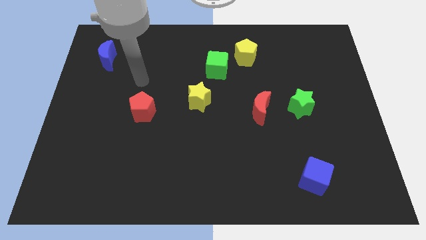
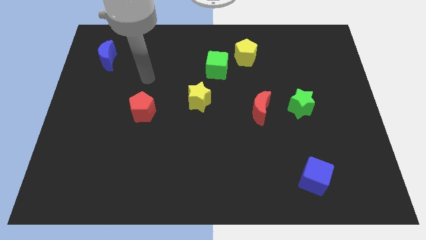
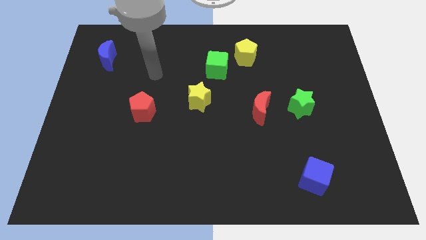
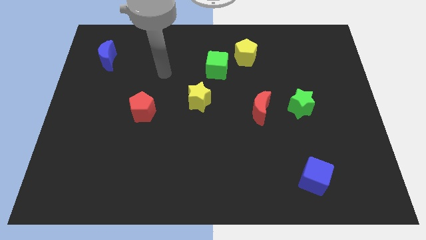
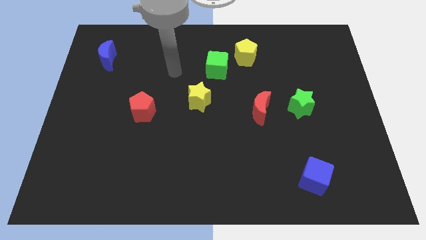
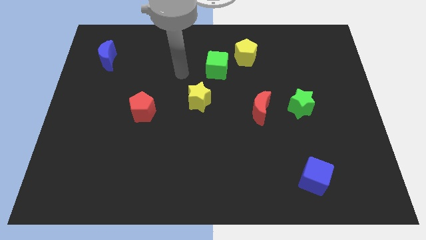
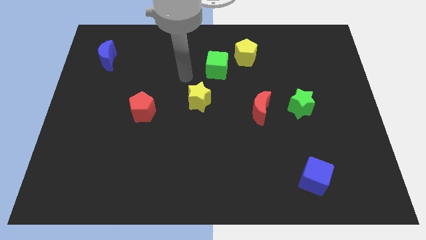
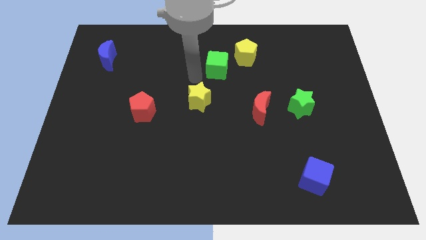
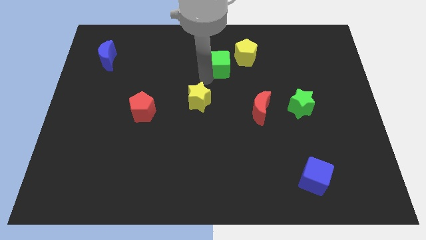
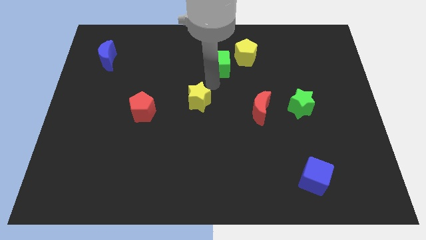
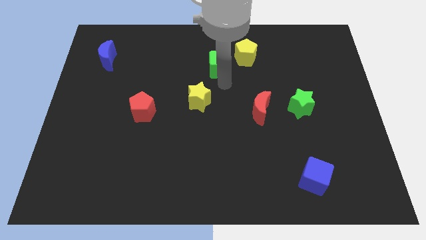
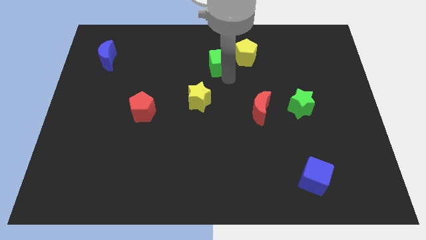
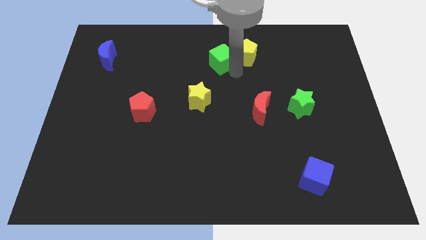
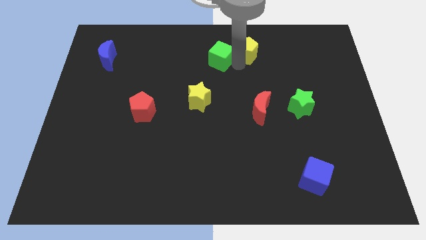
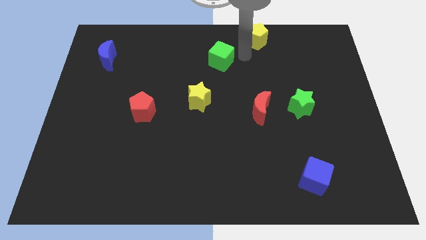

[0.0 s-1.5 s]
separate the green cube from the yellow pentagon

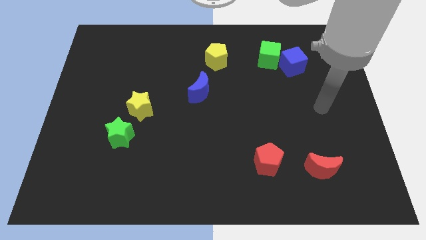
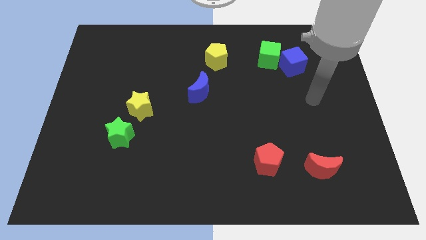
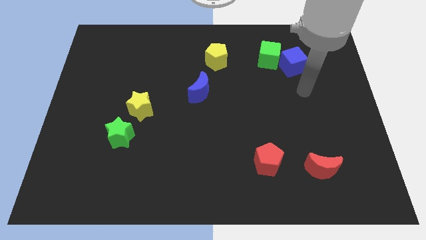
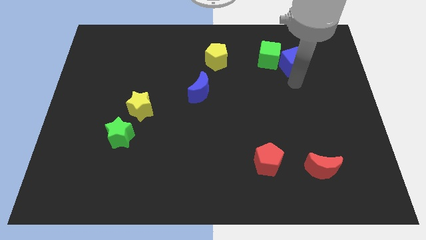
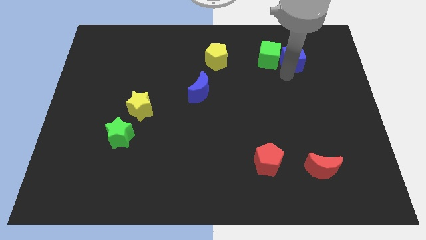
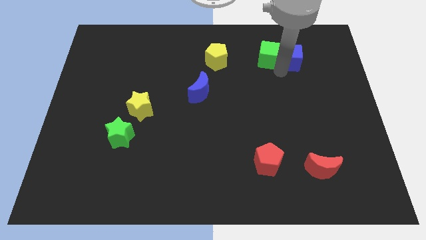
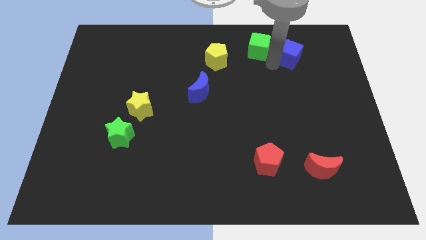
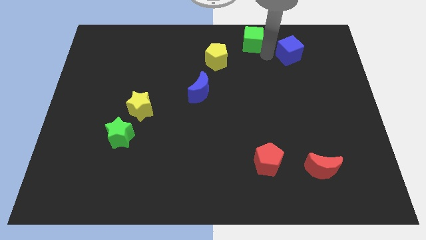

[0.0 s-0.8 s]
separate the blue cube from the green cube

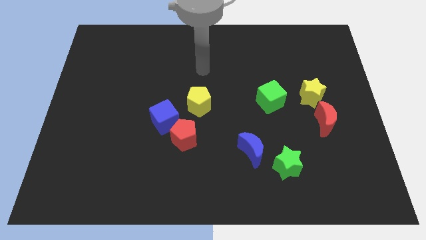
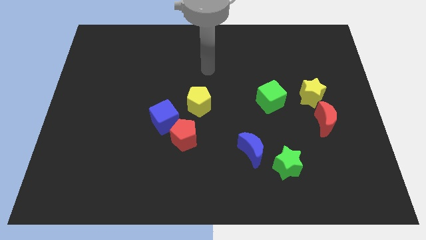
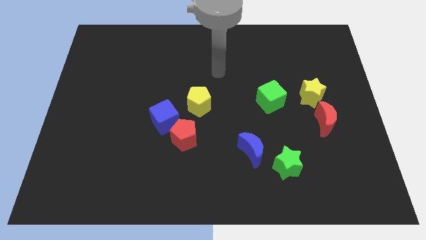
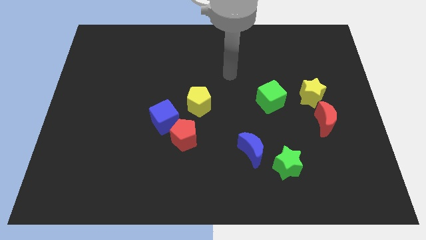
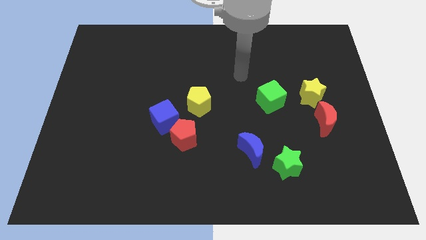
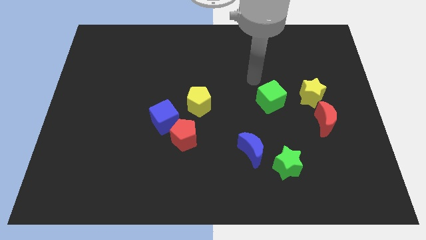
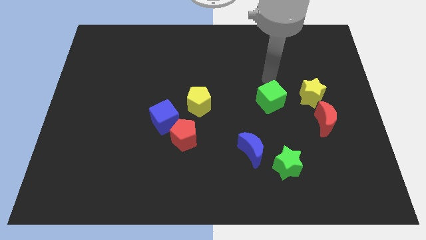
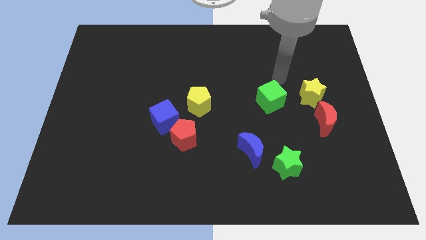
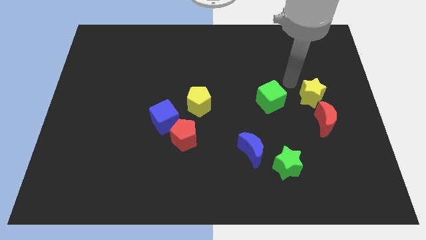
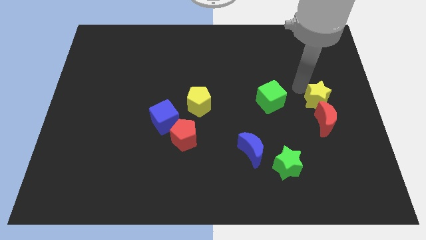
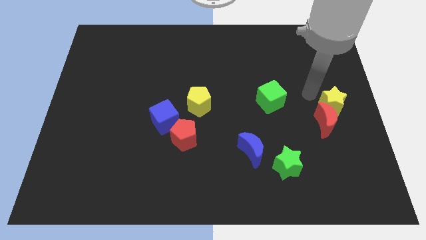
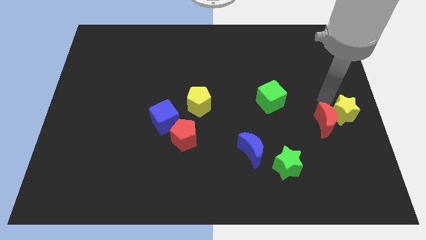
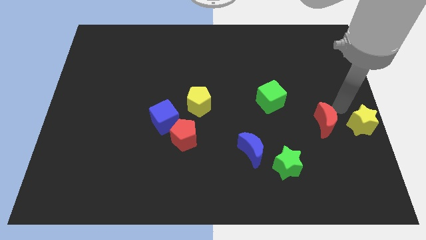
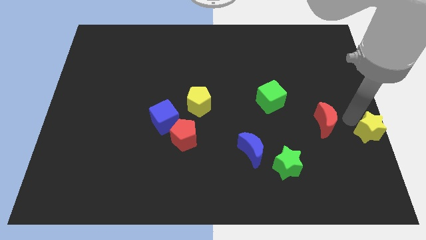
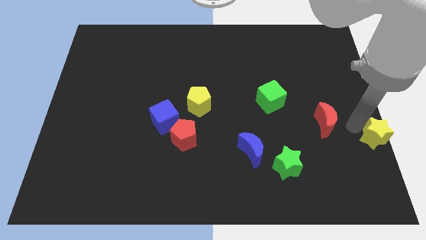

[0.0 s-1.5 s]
move the red moon away from the yellow star

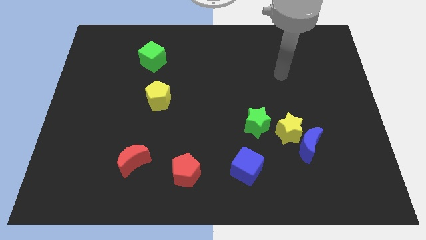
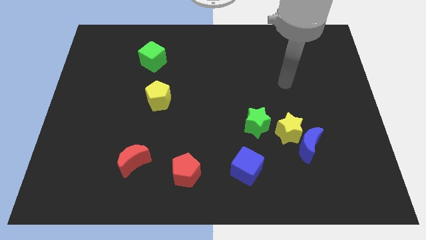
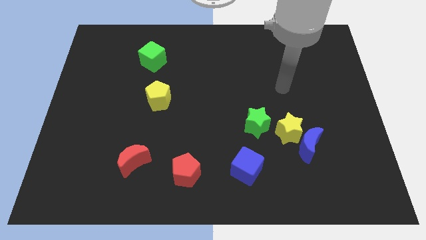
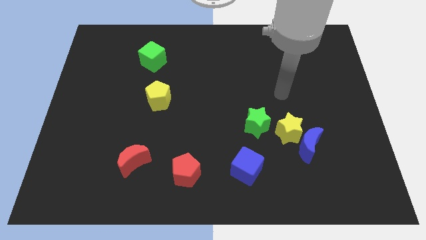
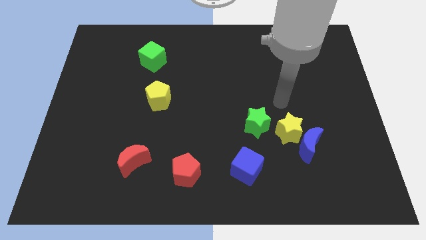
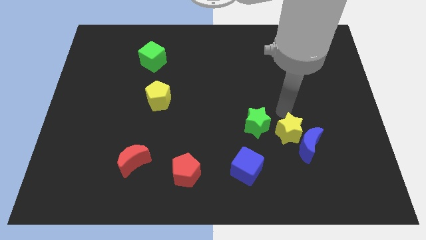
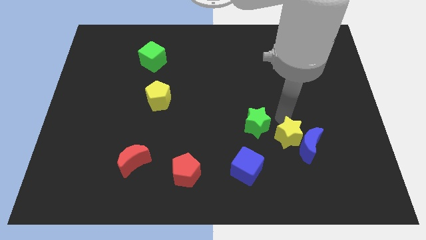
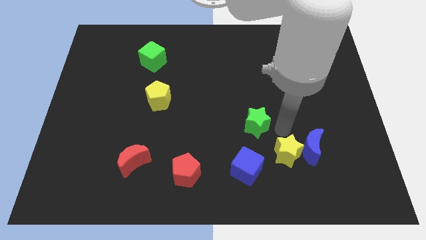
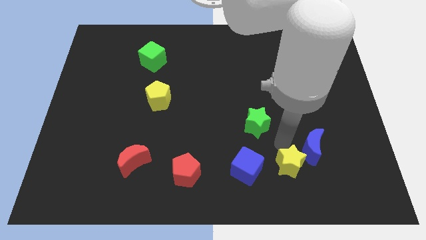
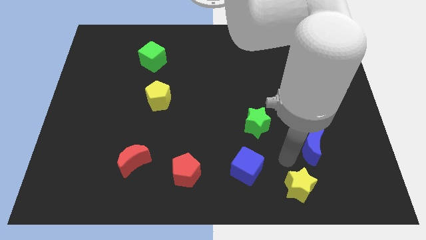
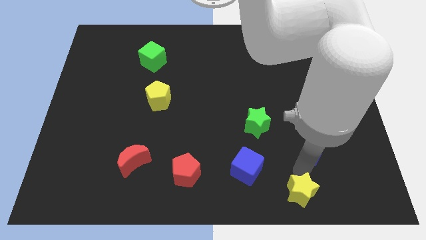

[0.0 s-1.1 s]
move the blue moon away from the yellow star

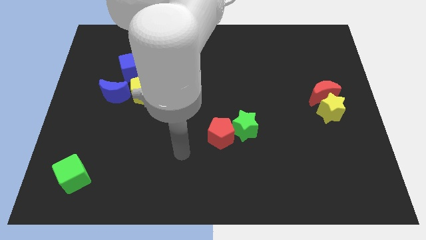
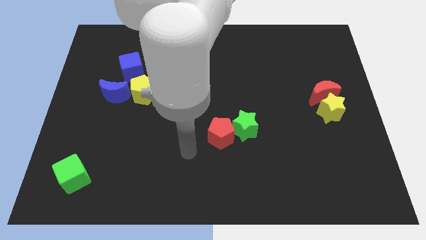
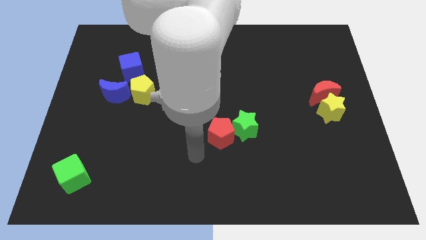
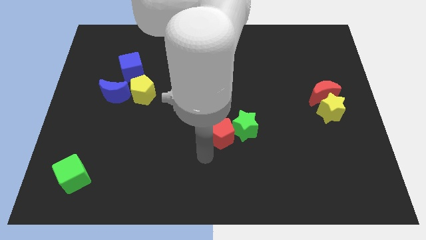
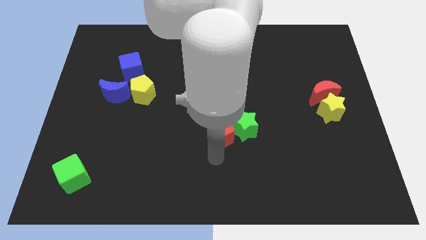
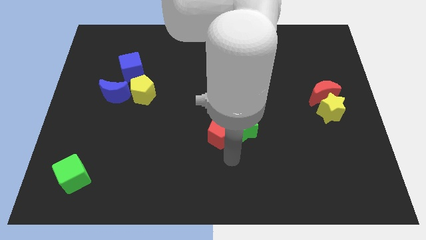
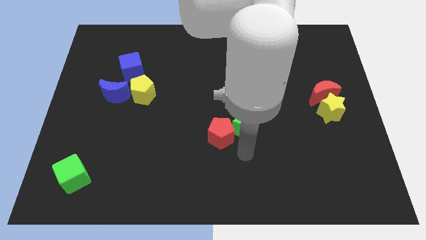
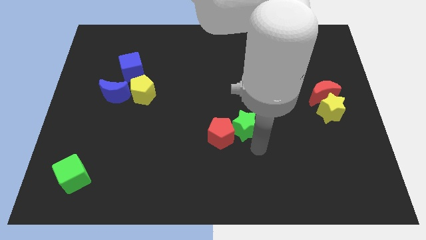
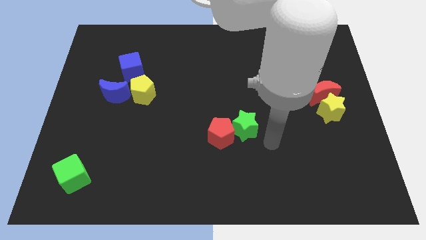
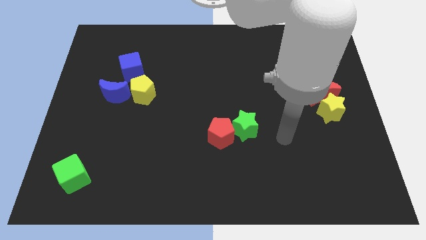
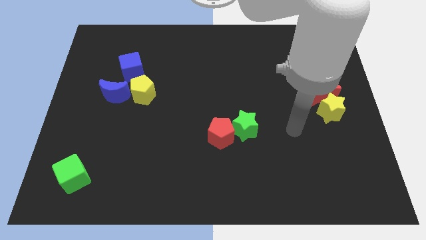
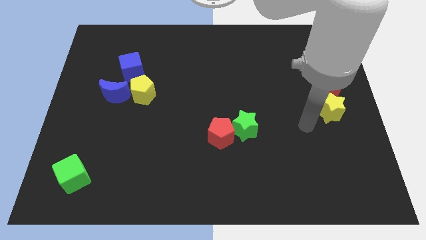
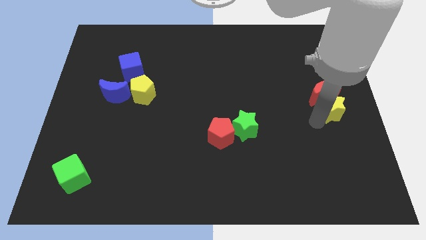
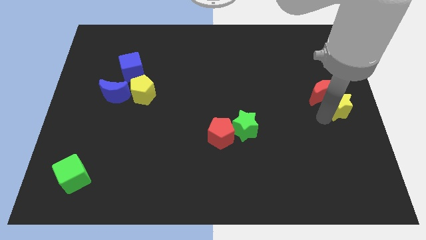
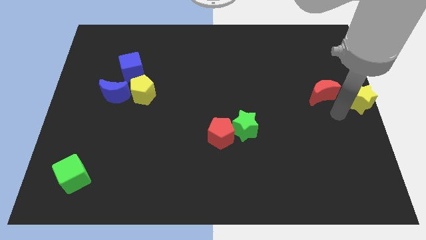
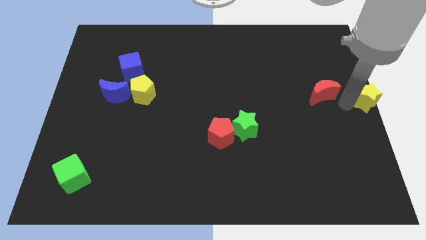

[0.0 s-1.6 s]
separate the red moon from the yellow star

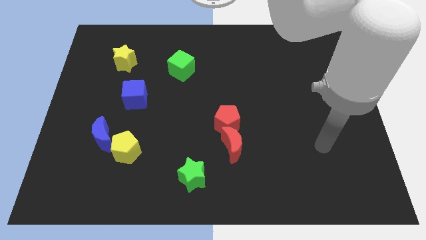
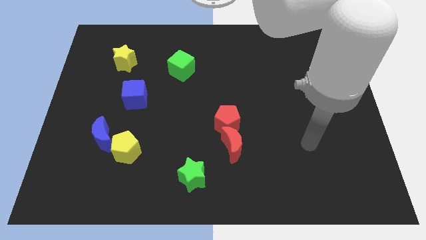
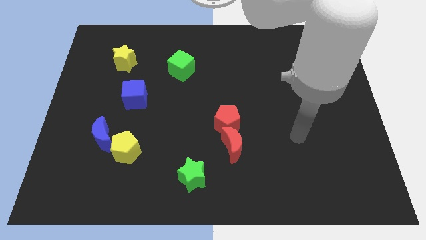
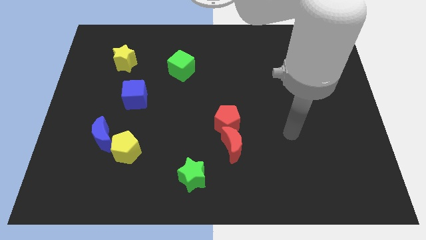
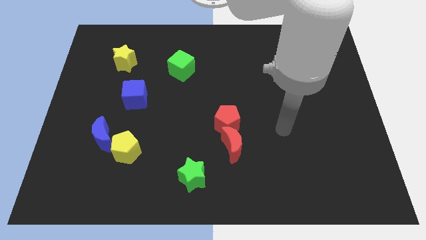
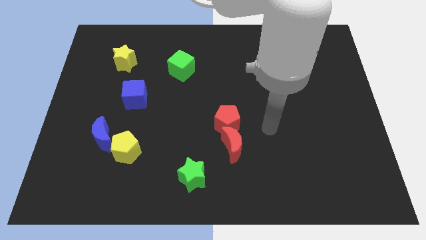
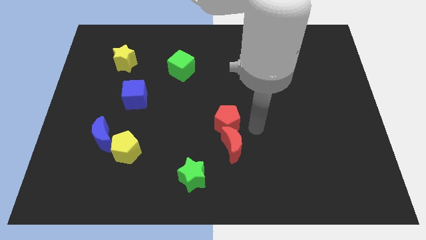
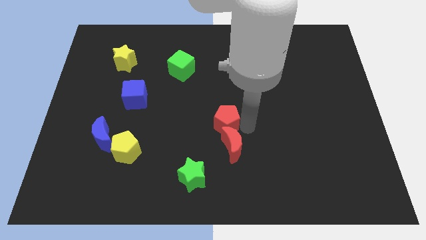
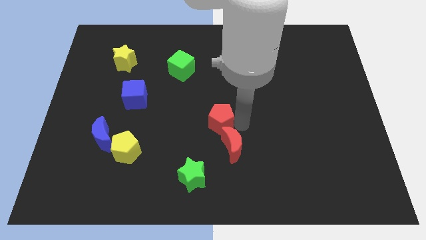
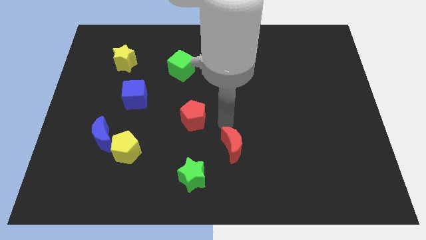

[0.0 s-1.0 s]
pull the red moon apart from the red pentagon

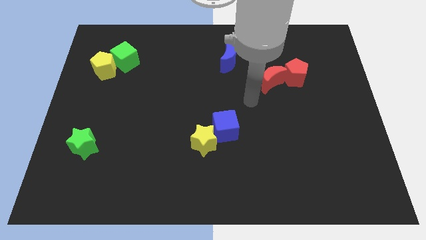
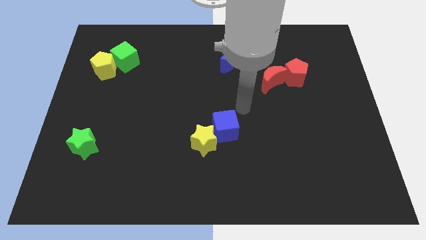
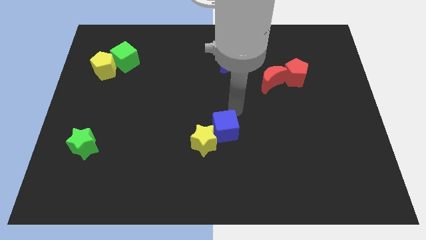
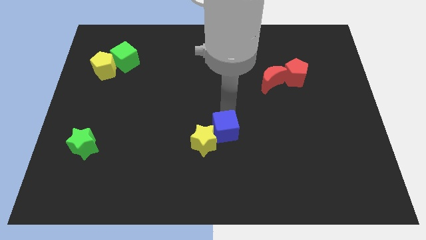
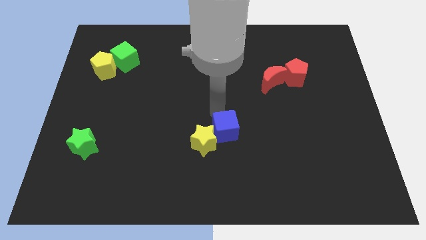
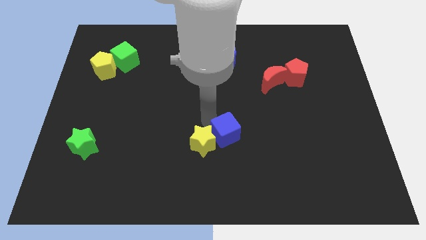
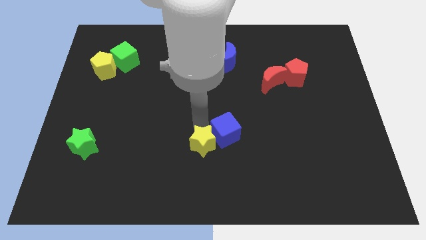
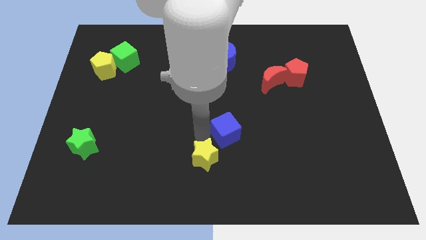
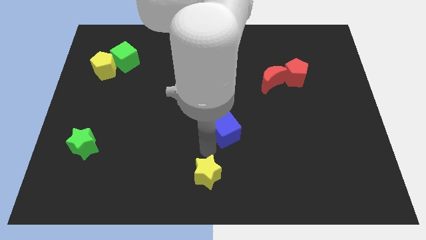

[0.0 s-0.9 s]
move the blue cube away from the yellow star

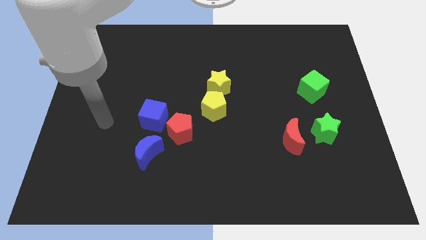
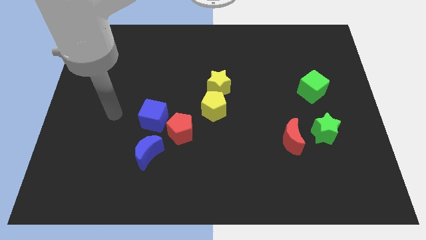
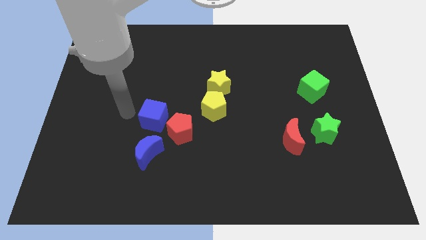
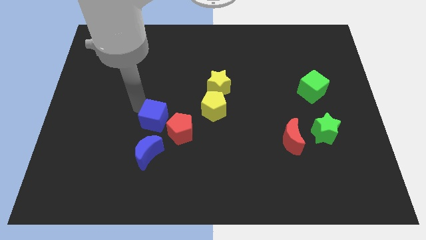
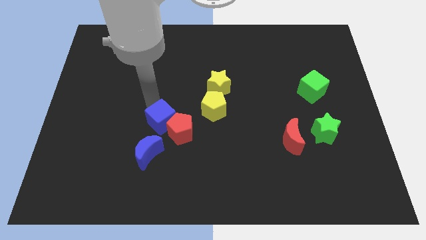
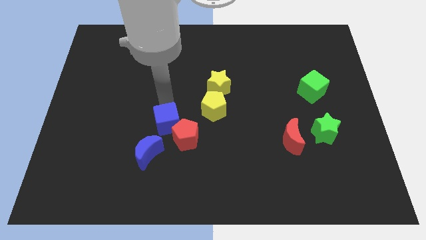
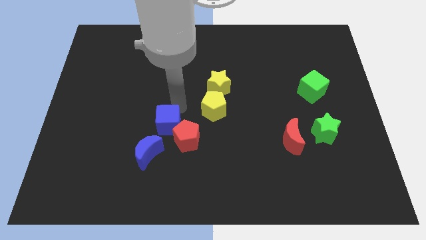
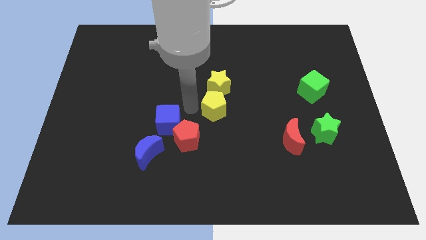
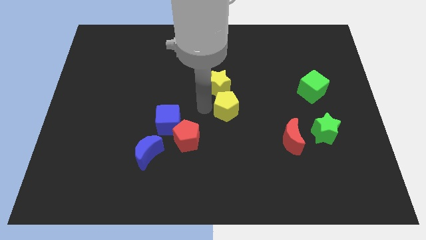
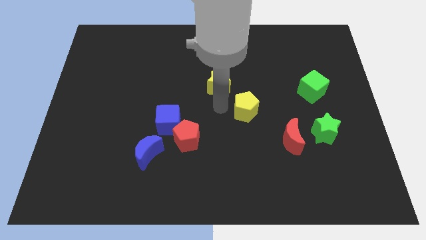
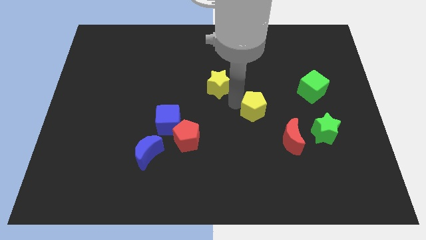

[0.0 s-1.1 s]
move the yellow star away from the yellow pentagon
